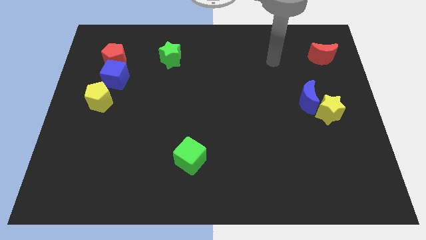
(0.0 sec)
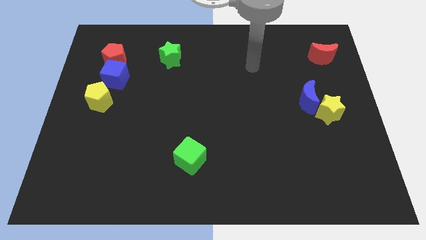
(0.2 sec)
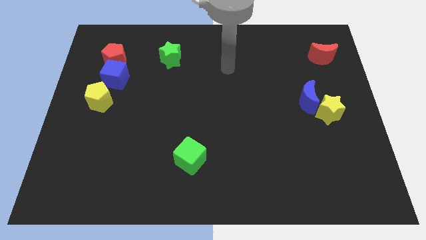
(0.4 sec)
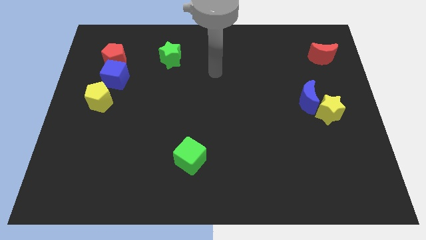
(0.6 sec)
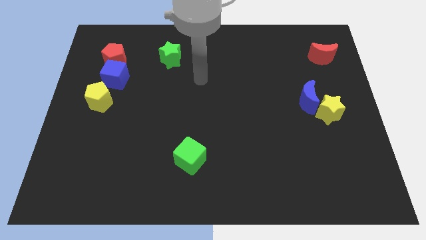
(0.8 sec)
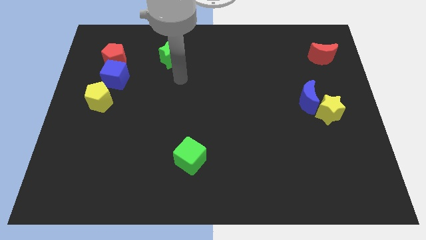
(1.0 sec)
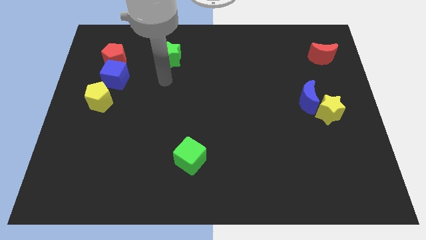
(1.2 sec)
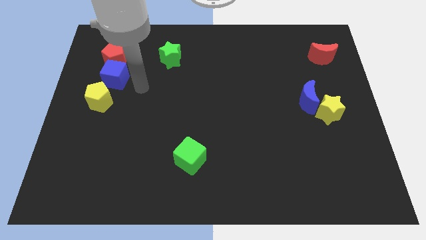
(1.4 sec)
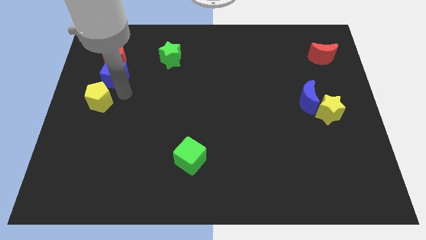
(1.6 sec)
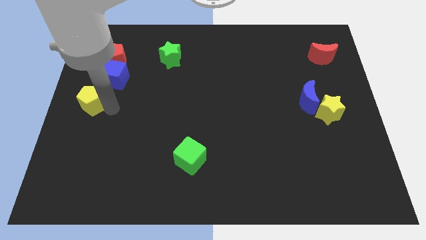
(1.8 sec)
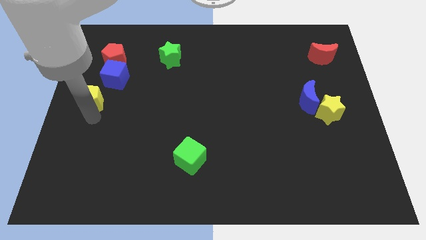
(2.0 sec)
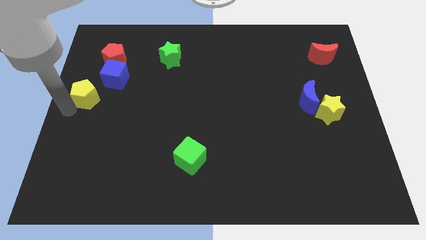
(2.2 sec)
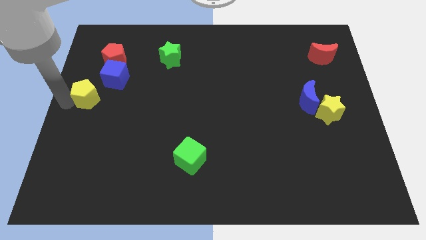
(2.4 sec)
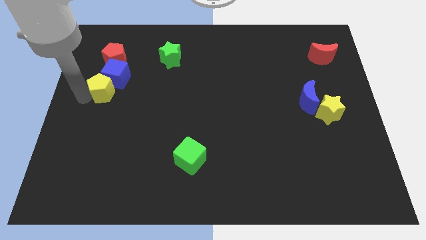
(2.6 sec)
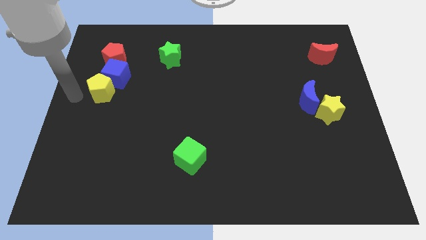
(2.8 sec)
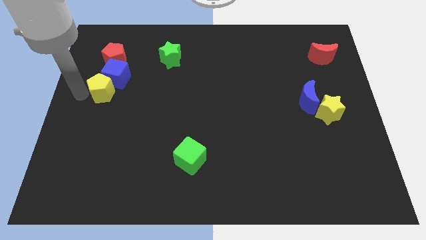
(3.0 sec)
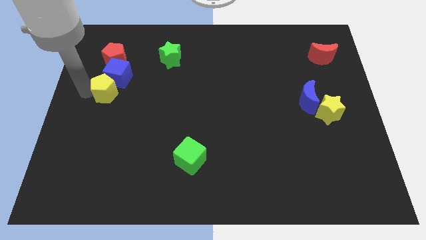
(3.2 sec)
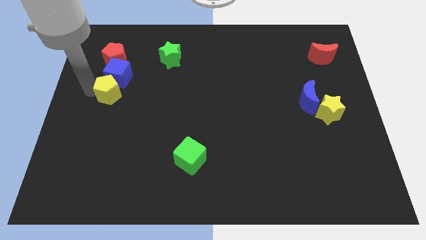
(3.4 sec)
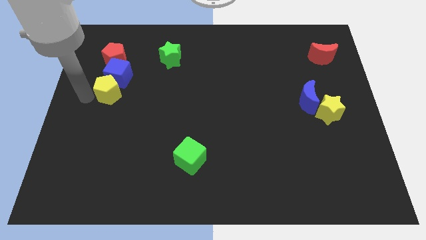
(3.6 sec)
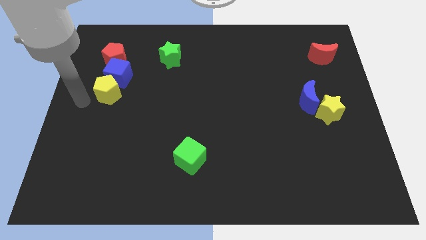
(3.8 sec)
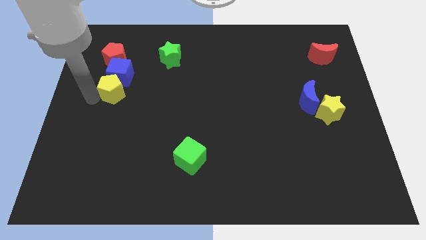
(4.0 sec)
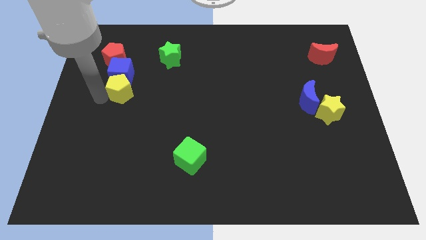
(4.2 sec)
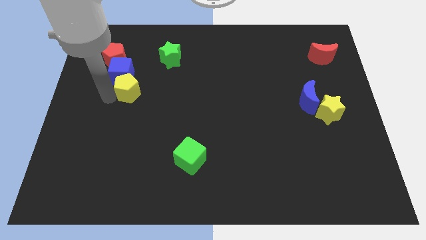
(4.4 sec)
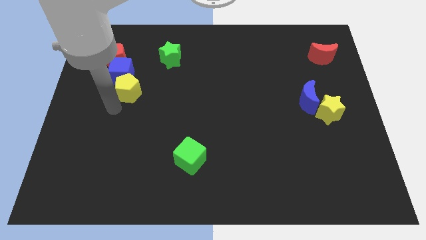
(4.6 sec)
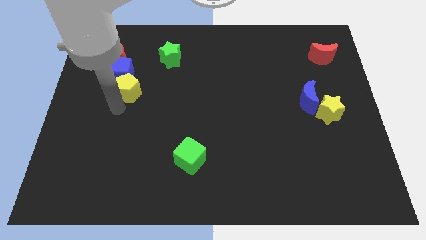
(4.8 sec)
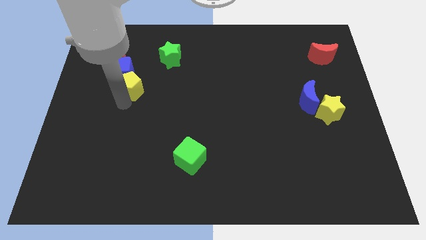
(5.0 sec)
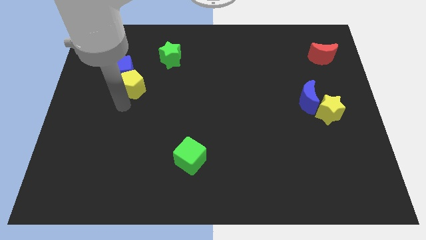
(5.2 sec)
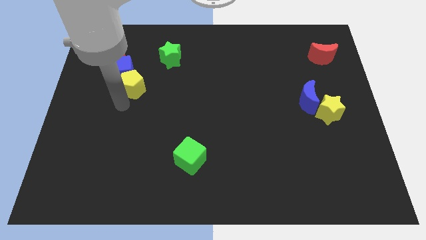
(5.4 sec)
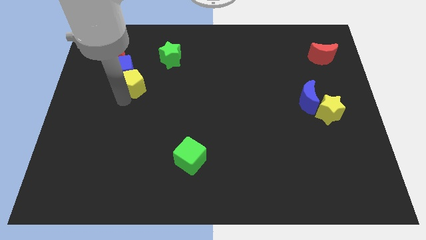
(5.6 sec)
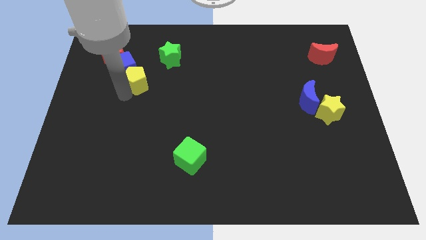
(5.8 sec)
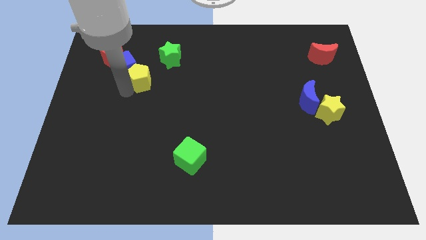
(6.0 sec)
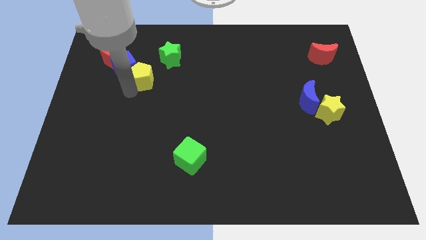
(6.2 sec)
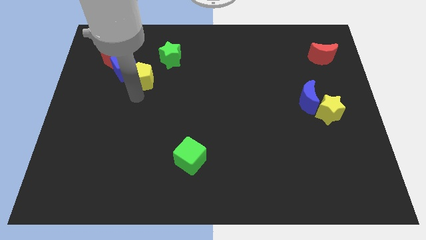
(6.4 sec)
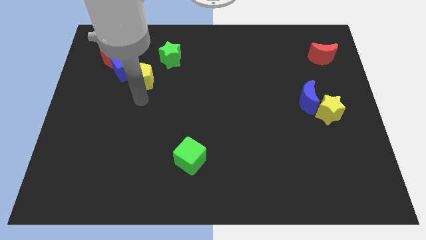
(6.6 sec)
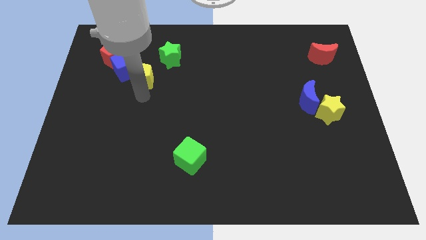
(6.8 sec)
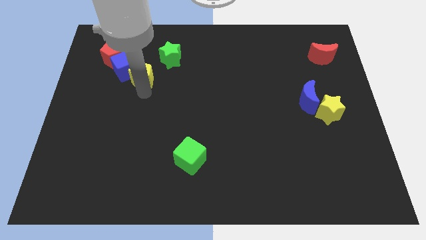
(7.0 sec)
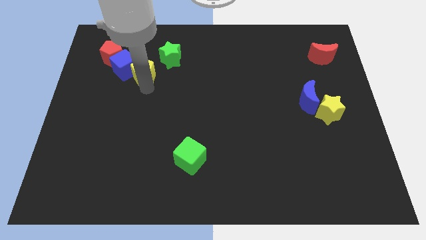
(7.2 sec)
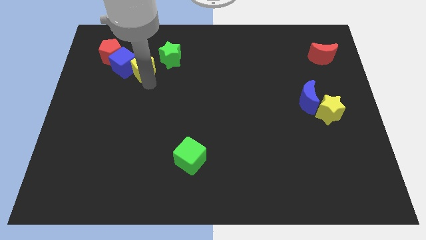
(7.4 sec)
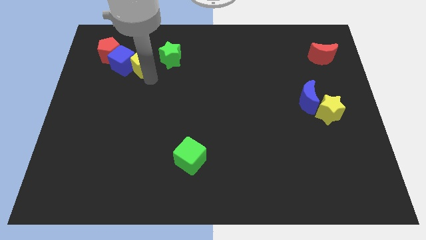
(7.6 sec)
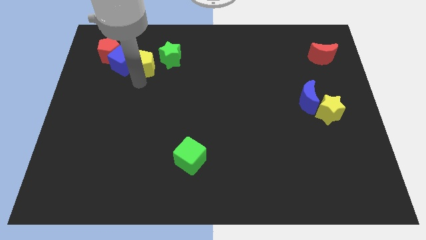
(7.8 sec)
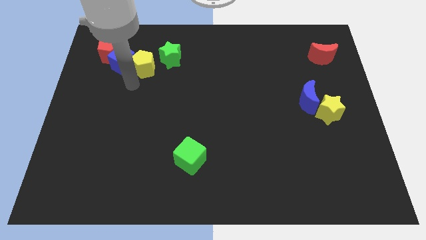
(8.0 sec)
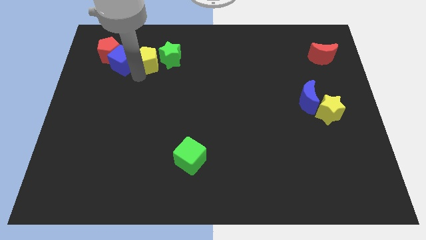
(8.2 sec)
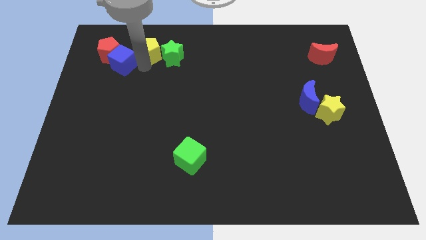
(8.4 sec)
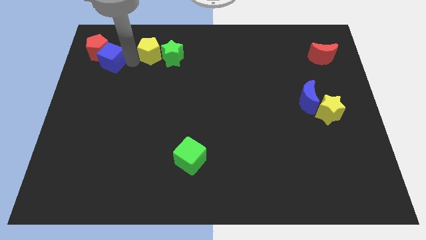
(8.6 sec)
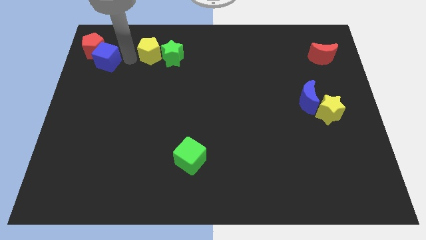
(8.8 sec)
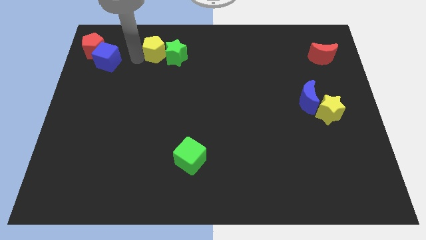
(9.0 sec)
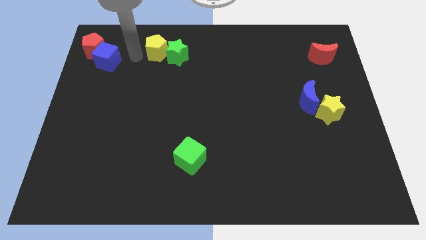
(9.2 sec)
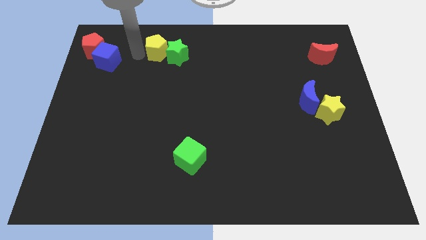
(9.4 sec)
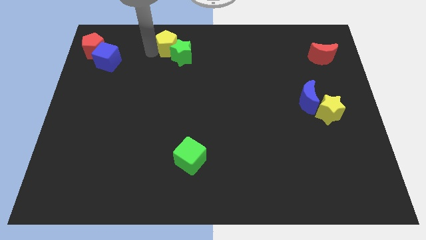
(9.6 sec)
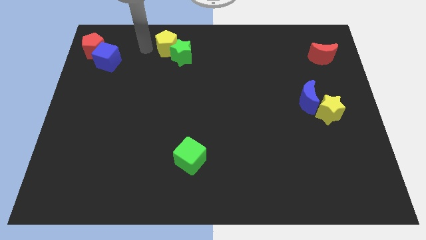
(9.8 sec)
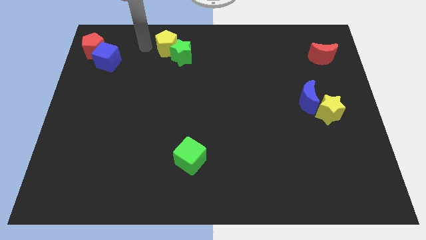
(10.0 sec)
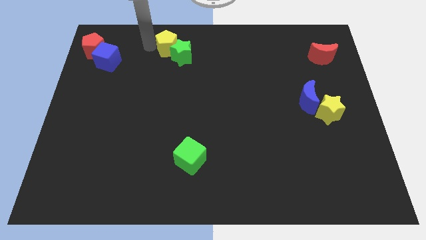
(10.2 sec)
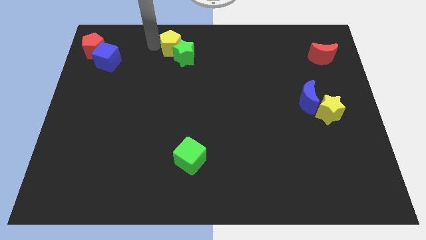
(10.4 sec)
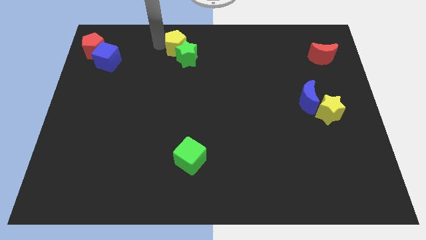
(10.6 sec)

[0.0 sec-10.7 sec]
push the yellow pentagon to the top

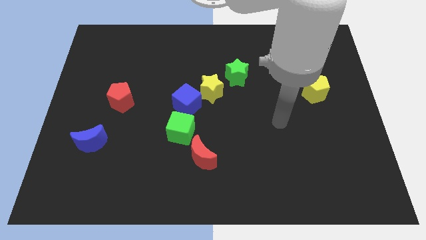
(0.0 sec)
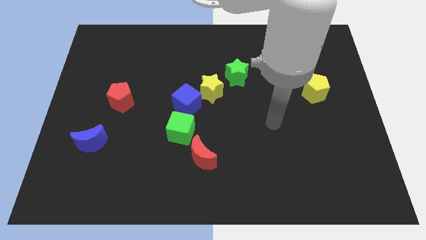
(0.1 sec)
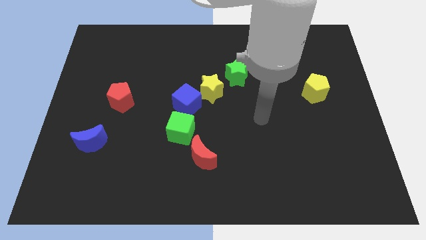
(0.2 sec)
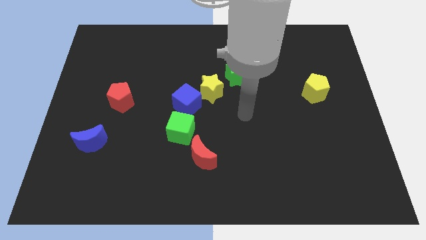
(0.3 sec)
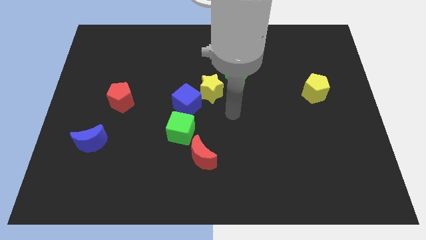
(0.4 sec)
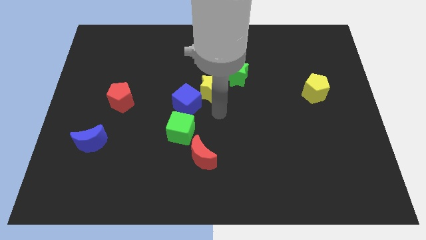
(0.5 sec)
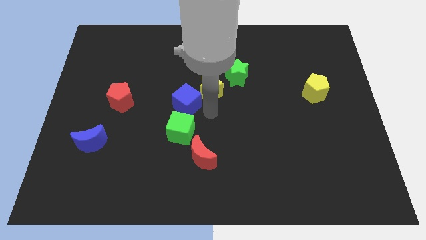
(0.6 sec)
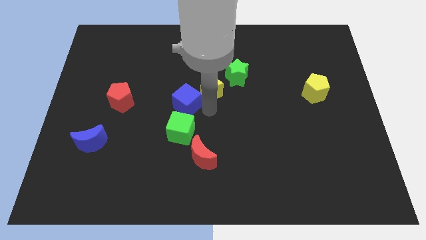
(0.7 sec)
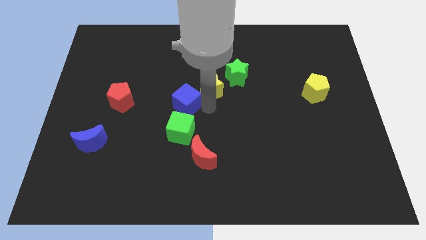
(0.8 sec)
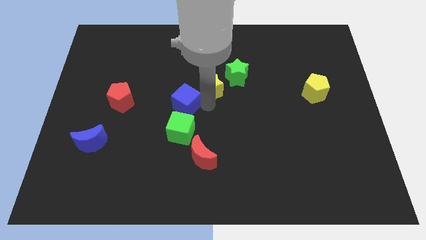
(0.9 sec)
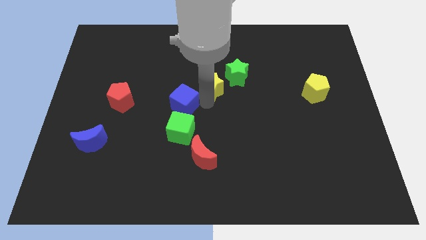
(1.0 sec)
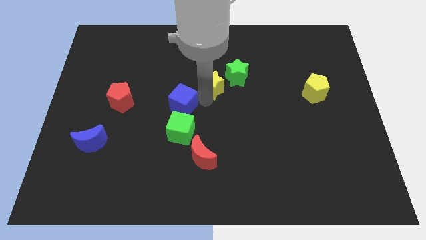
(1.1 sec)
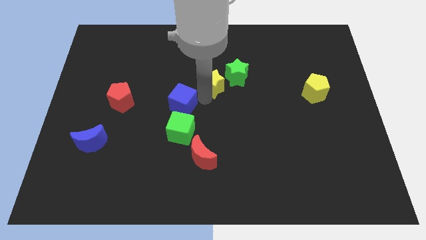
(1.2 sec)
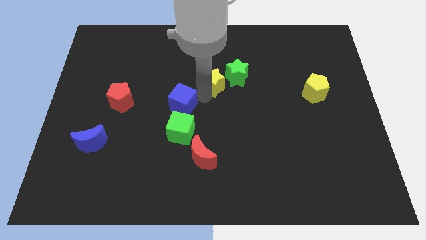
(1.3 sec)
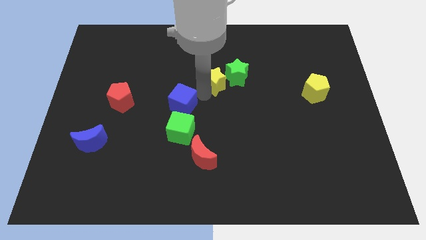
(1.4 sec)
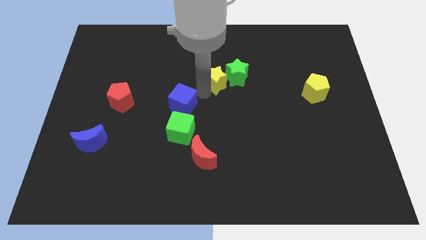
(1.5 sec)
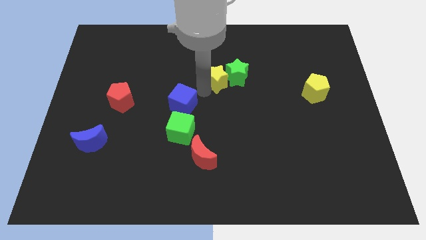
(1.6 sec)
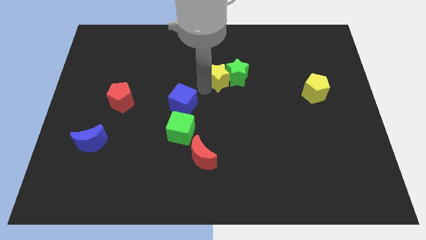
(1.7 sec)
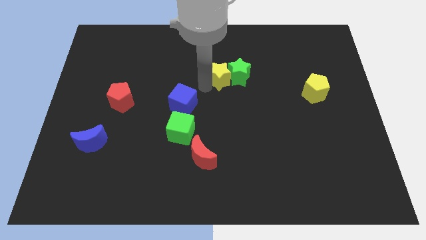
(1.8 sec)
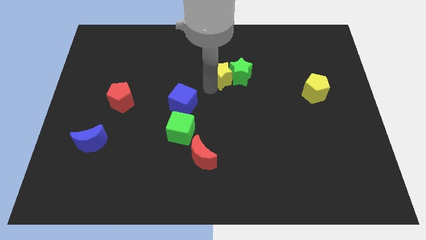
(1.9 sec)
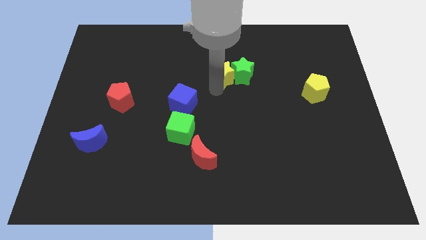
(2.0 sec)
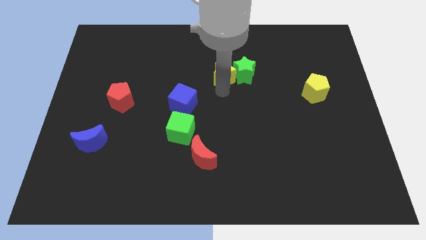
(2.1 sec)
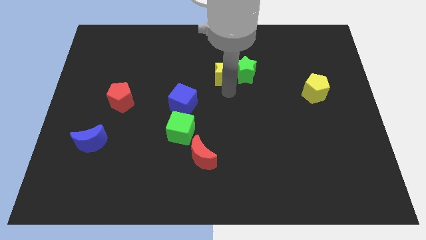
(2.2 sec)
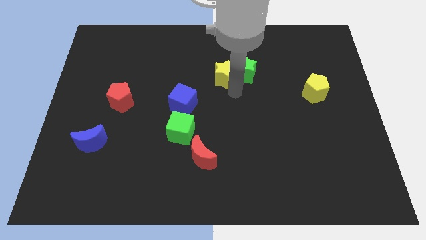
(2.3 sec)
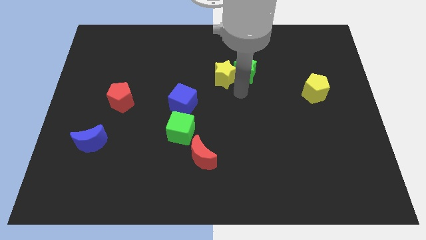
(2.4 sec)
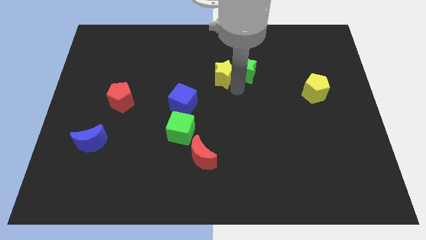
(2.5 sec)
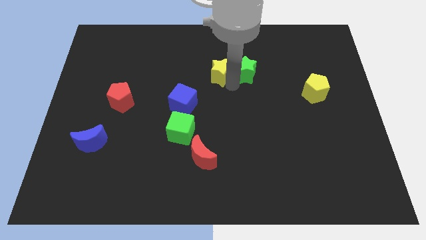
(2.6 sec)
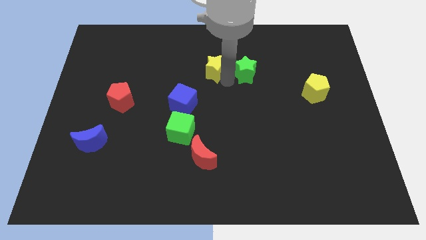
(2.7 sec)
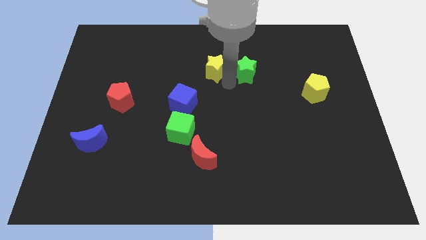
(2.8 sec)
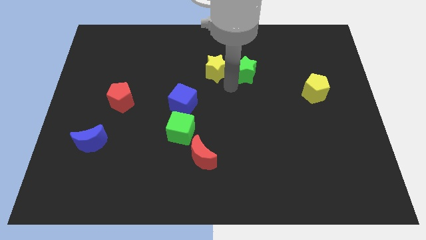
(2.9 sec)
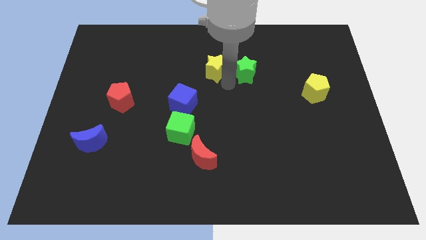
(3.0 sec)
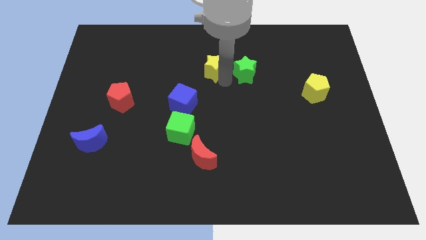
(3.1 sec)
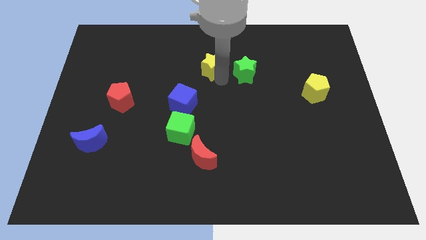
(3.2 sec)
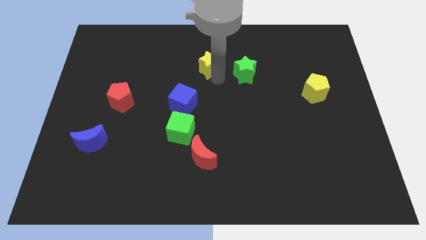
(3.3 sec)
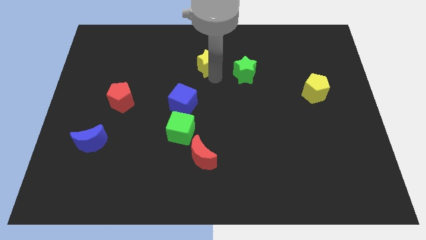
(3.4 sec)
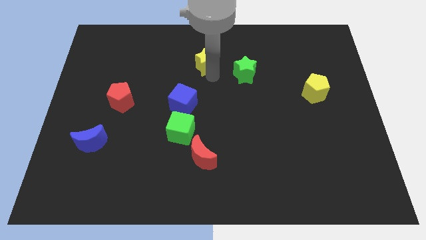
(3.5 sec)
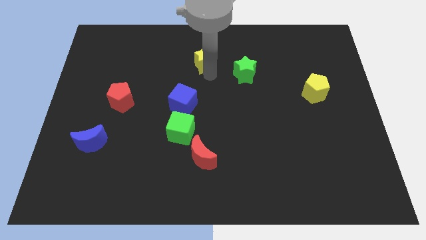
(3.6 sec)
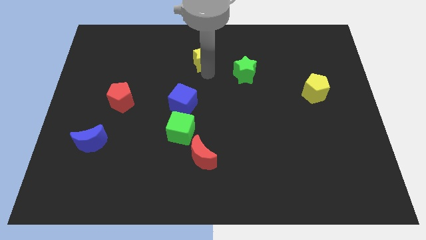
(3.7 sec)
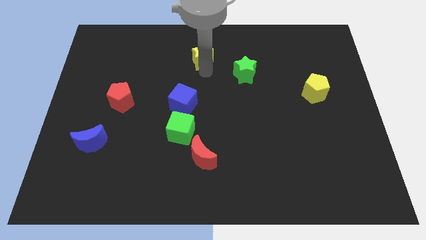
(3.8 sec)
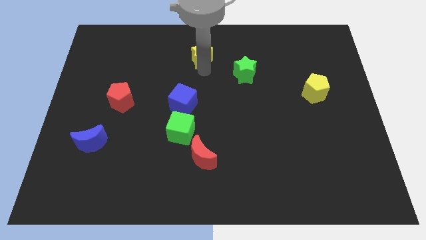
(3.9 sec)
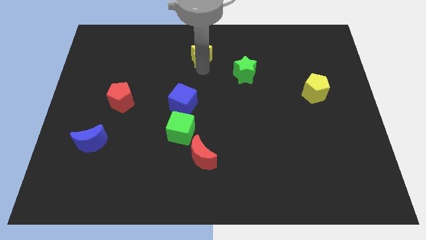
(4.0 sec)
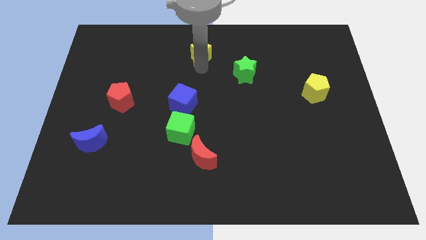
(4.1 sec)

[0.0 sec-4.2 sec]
put the yellow star to the towards your base
